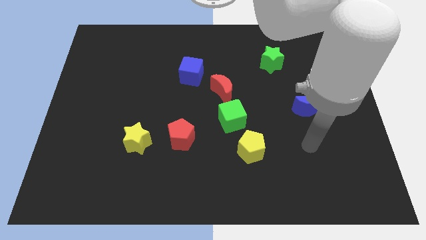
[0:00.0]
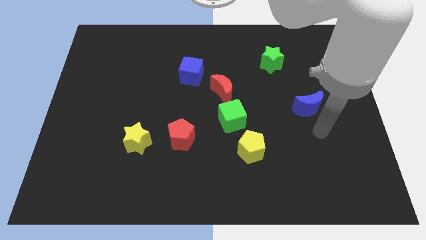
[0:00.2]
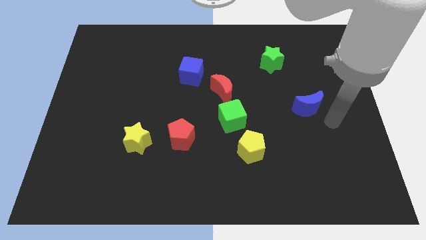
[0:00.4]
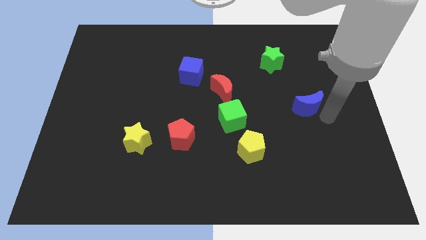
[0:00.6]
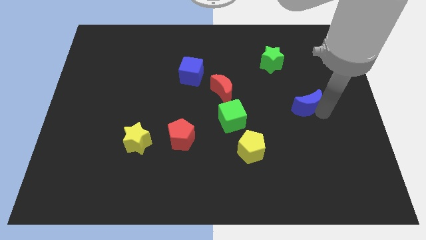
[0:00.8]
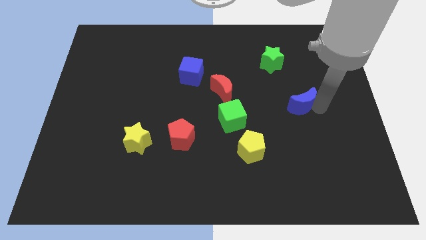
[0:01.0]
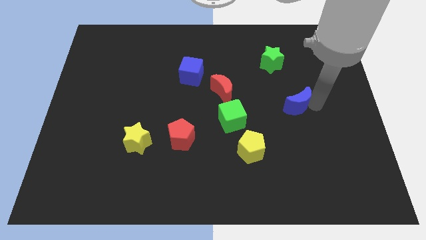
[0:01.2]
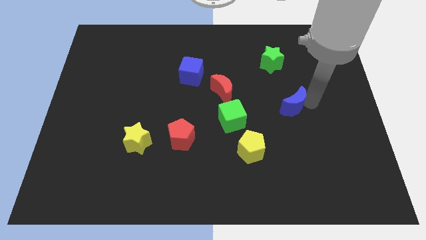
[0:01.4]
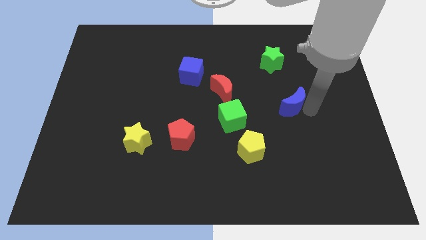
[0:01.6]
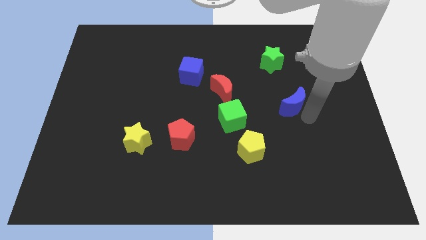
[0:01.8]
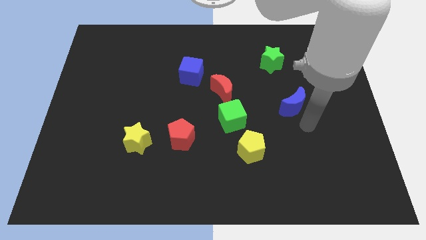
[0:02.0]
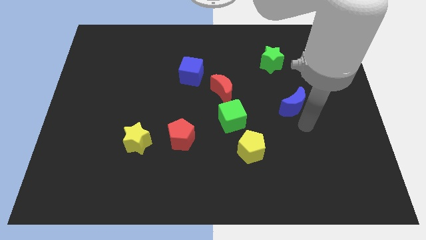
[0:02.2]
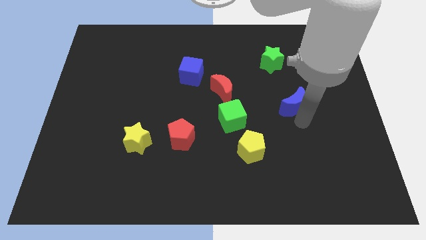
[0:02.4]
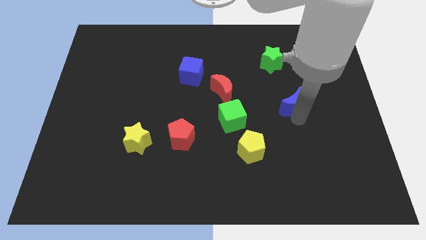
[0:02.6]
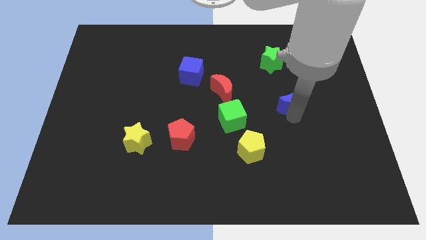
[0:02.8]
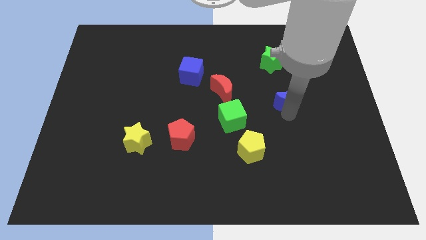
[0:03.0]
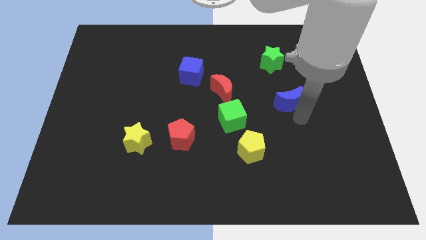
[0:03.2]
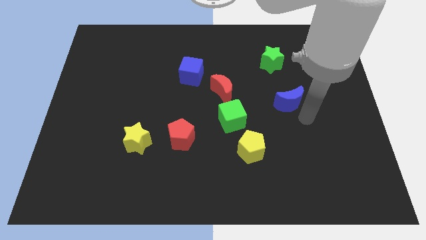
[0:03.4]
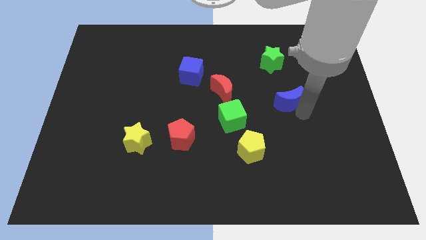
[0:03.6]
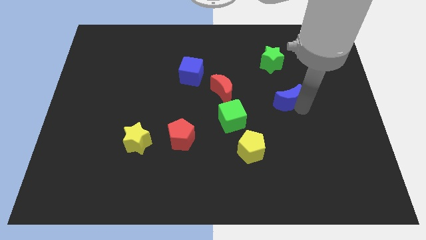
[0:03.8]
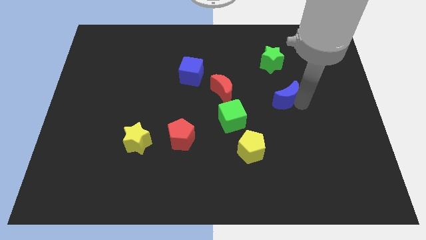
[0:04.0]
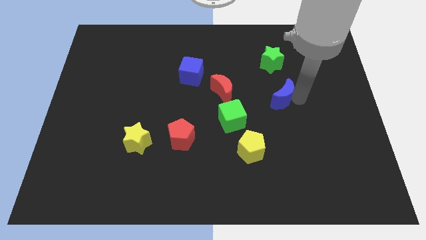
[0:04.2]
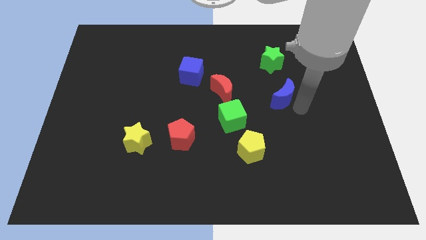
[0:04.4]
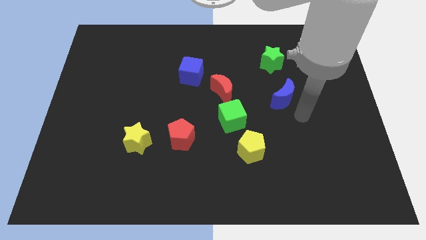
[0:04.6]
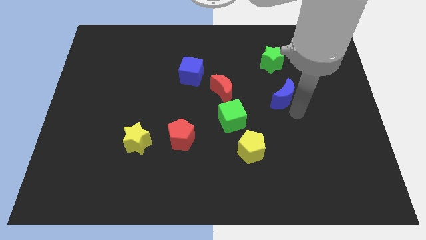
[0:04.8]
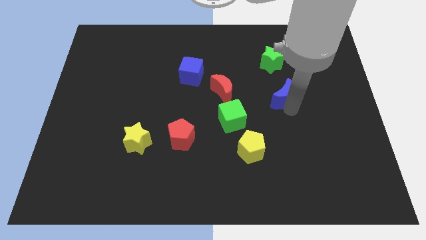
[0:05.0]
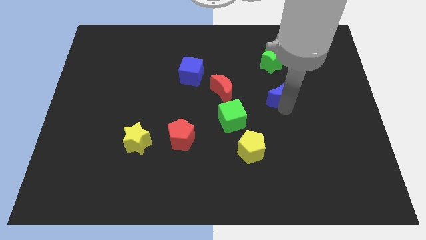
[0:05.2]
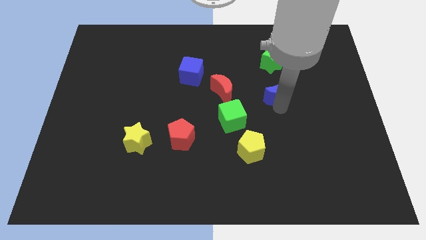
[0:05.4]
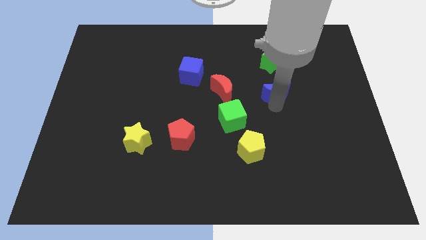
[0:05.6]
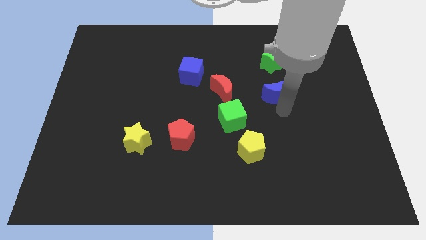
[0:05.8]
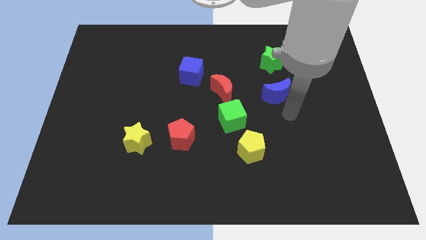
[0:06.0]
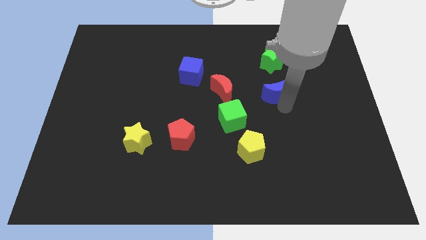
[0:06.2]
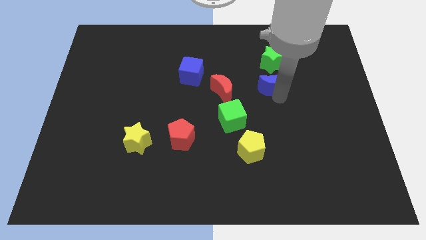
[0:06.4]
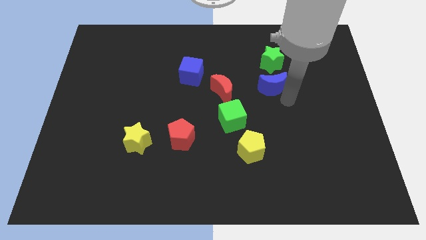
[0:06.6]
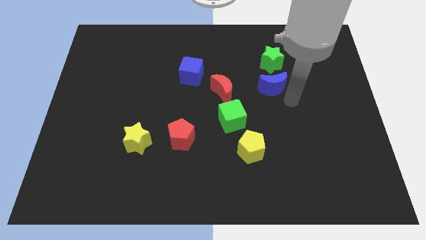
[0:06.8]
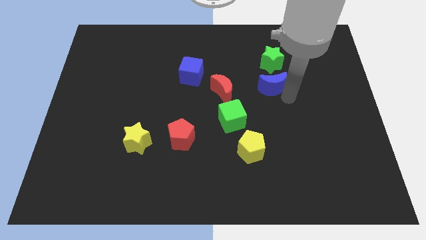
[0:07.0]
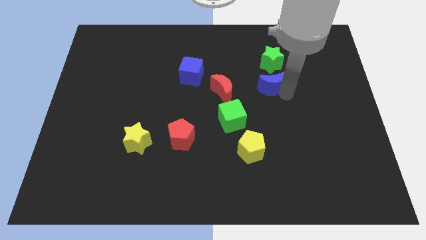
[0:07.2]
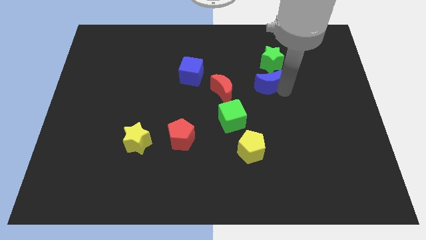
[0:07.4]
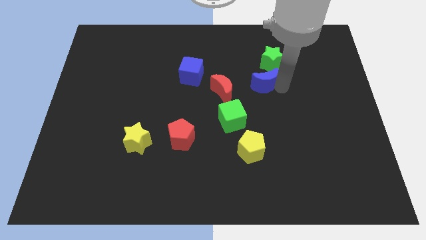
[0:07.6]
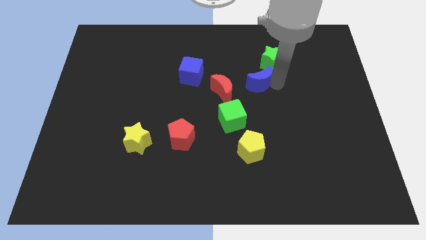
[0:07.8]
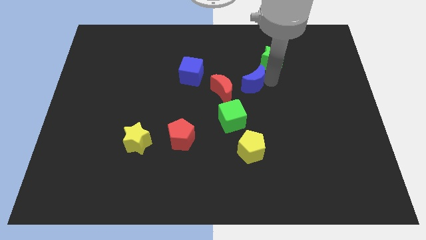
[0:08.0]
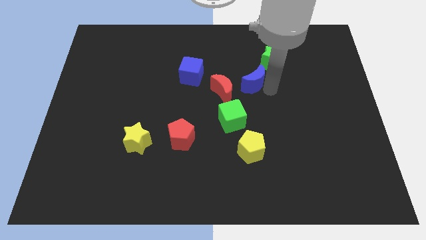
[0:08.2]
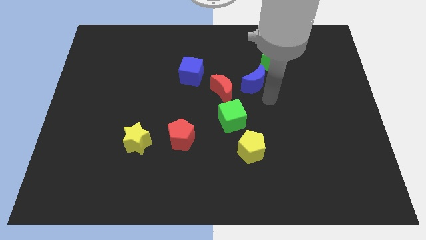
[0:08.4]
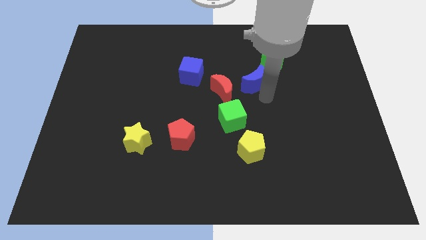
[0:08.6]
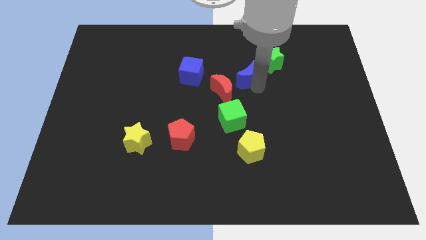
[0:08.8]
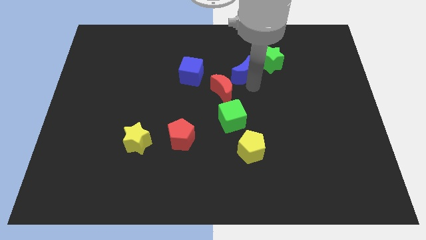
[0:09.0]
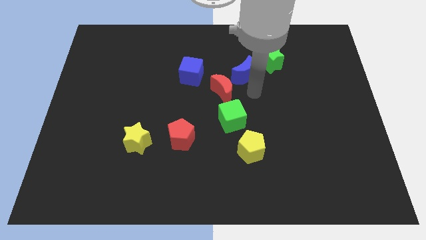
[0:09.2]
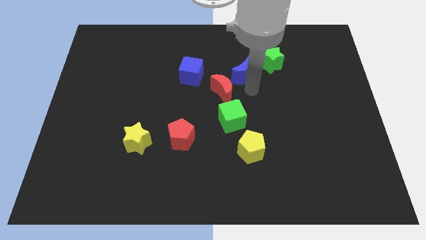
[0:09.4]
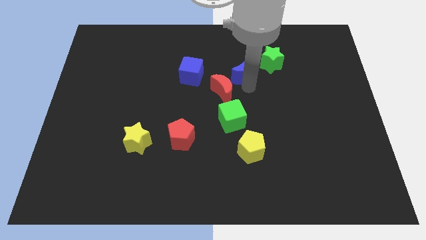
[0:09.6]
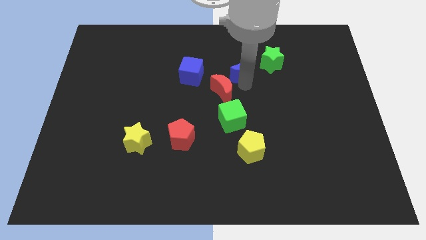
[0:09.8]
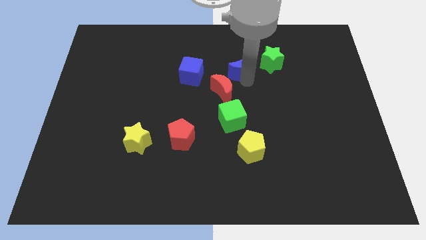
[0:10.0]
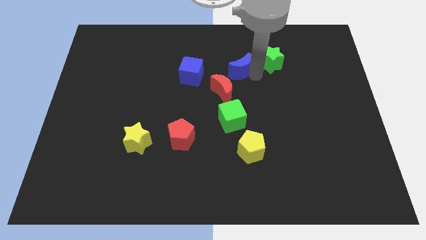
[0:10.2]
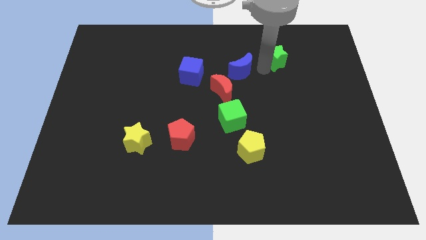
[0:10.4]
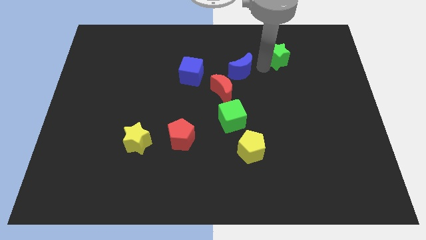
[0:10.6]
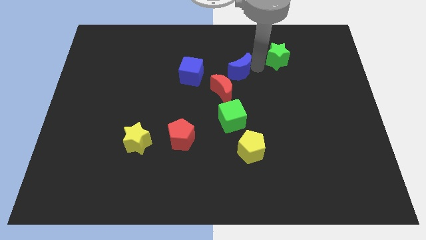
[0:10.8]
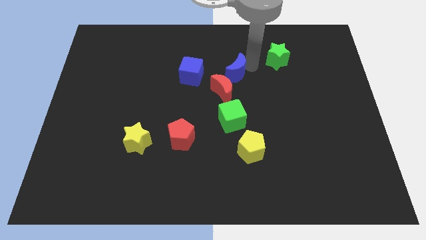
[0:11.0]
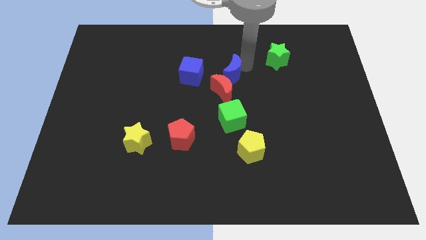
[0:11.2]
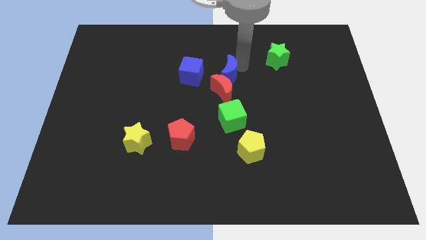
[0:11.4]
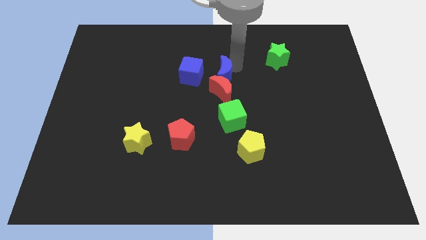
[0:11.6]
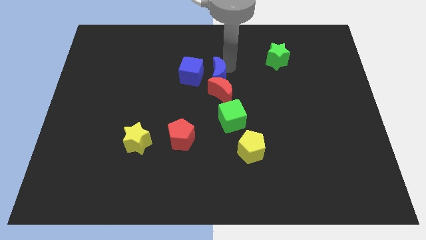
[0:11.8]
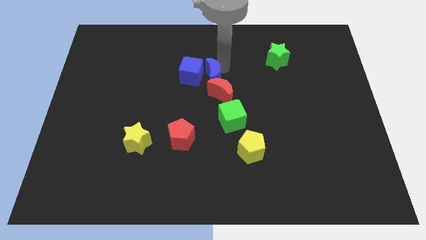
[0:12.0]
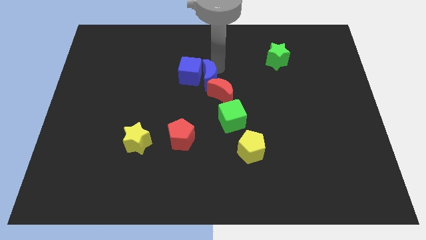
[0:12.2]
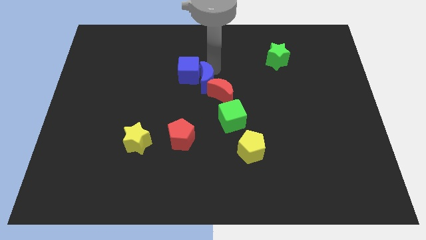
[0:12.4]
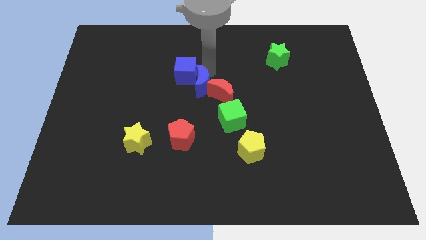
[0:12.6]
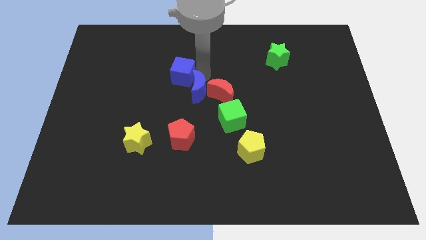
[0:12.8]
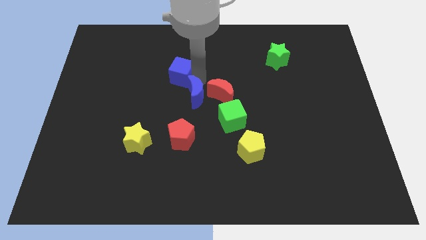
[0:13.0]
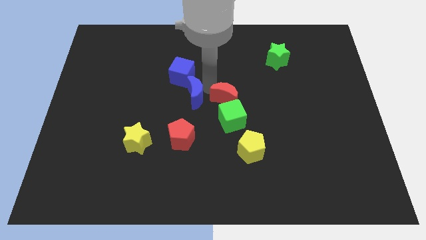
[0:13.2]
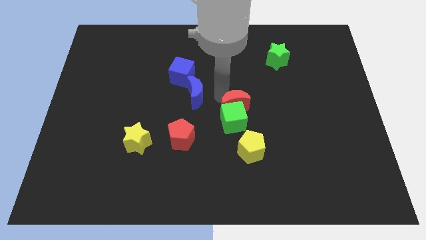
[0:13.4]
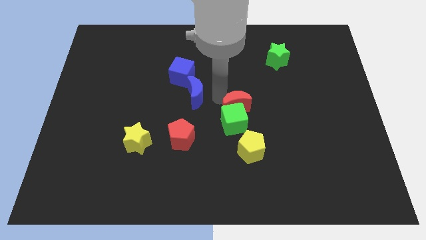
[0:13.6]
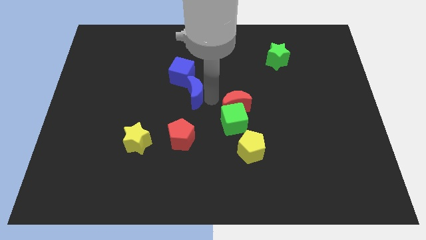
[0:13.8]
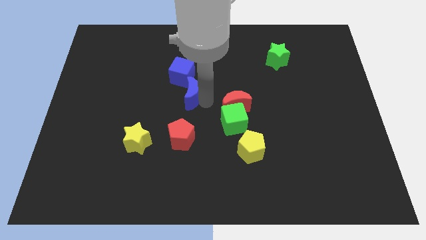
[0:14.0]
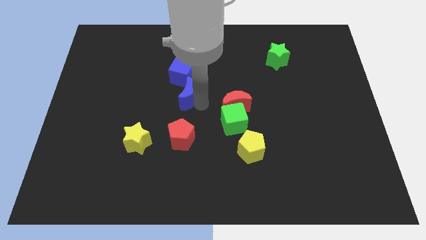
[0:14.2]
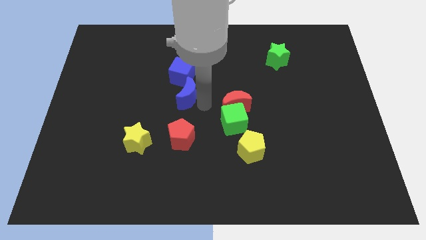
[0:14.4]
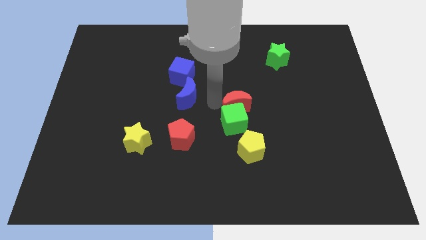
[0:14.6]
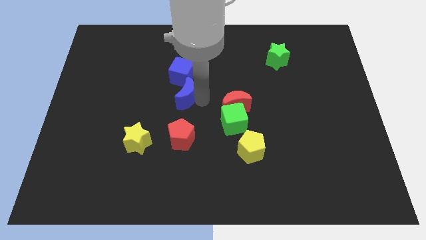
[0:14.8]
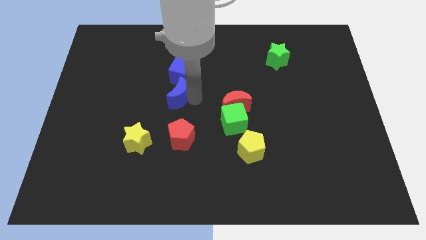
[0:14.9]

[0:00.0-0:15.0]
move the blue moon to the bottom left of the blue cube

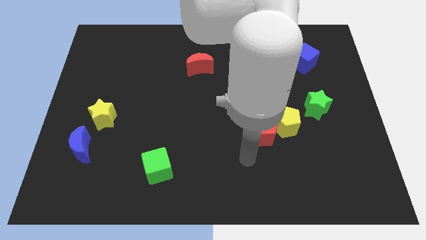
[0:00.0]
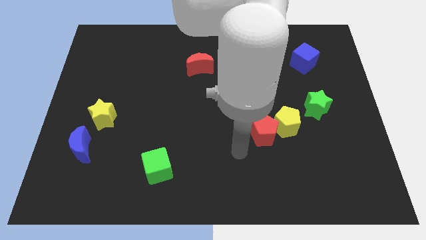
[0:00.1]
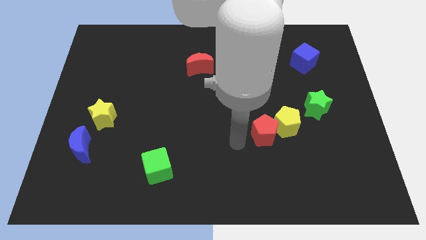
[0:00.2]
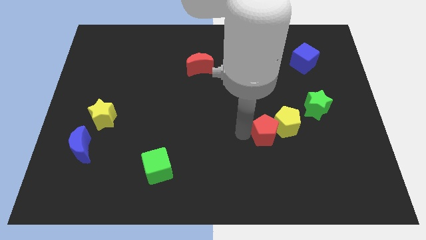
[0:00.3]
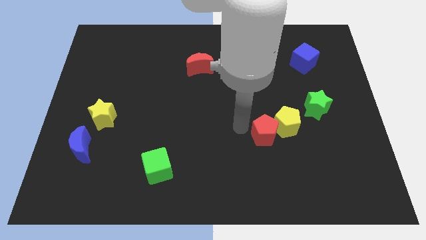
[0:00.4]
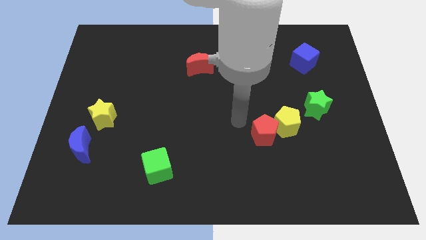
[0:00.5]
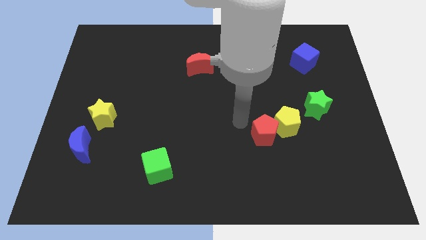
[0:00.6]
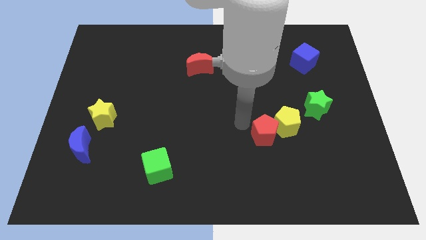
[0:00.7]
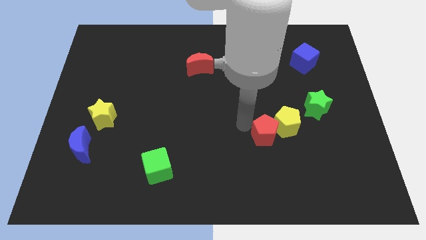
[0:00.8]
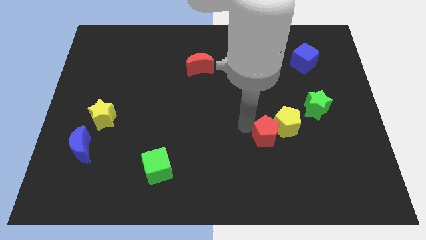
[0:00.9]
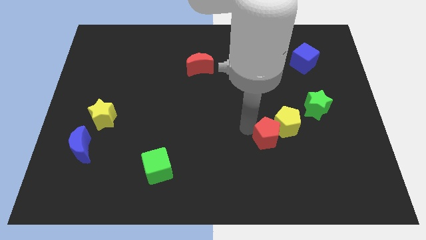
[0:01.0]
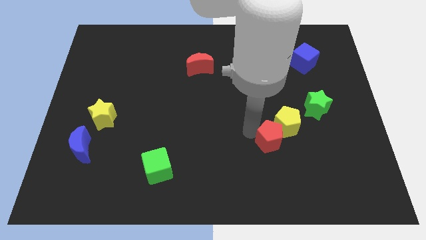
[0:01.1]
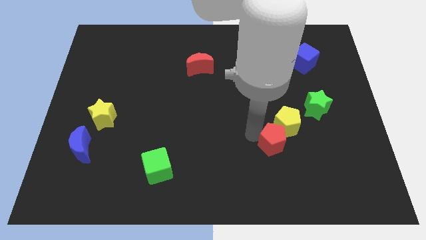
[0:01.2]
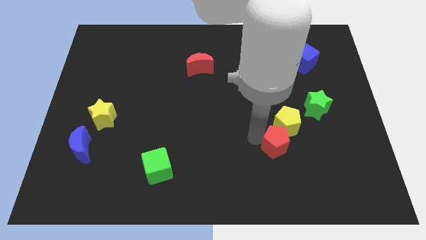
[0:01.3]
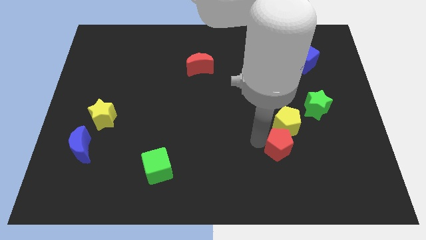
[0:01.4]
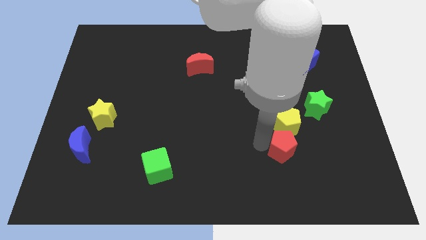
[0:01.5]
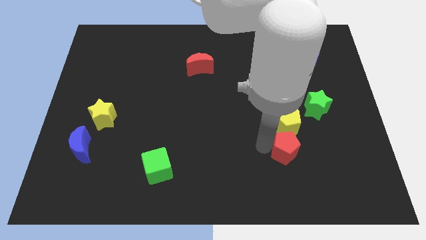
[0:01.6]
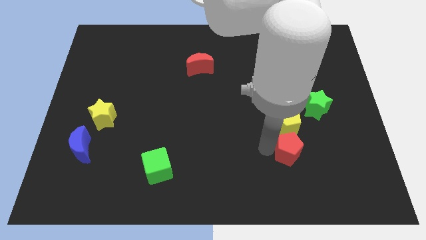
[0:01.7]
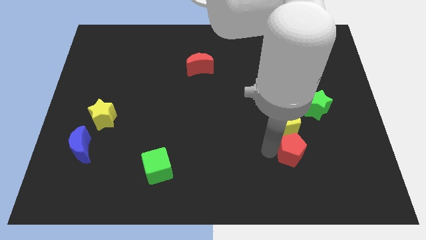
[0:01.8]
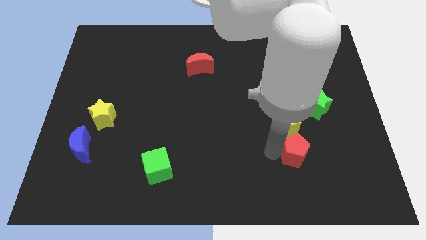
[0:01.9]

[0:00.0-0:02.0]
push the red pentagon to the bottom right of the yellow pentagon
